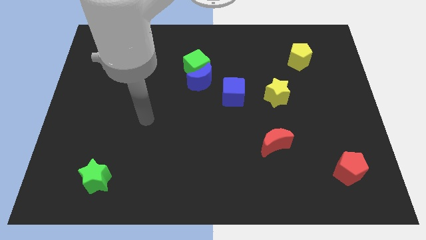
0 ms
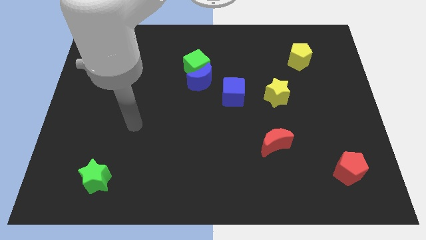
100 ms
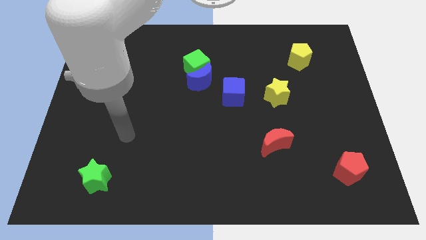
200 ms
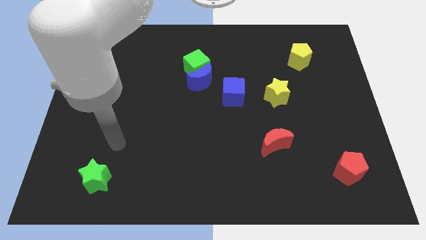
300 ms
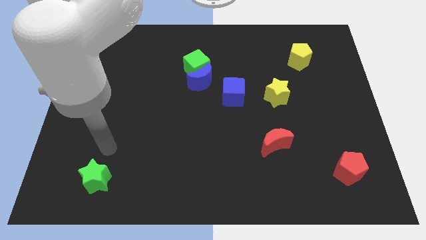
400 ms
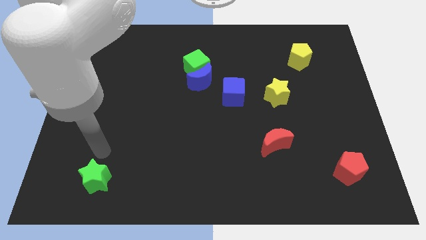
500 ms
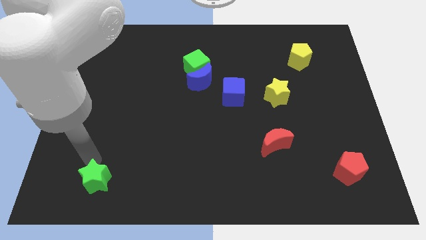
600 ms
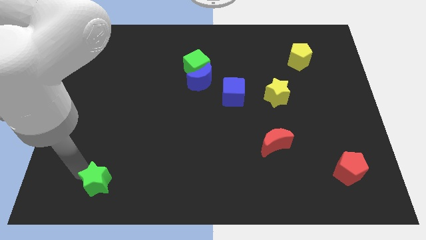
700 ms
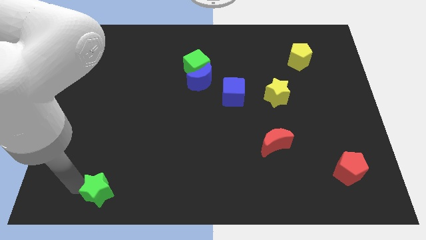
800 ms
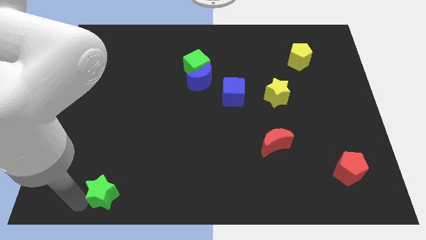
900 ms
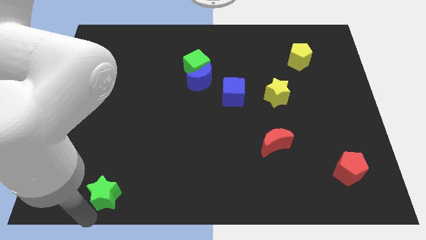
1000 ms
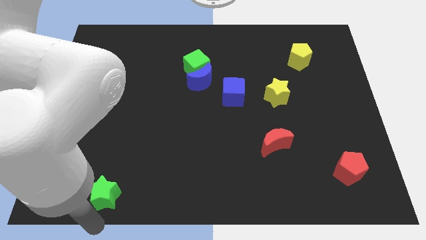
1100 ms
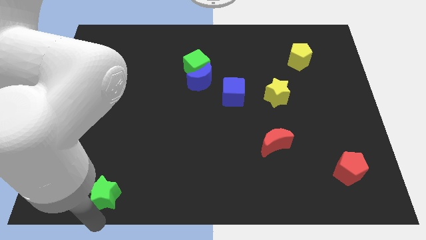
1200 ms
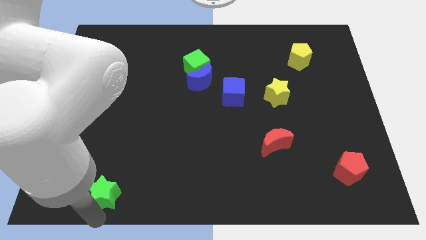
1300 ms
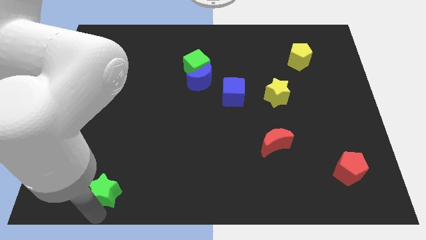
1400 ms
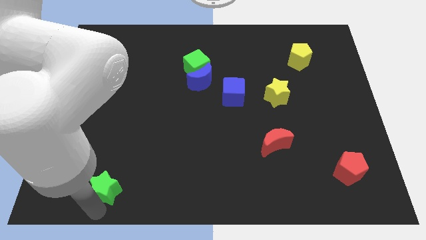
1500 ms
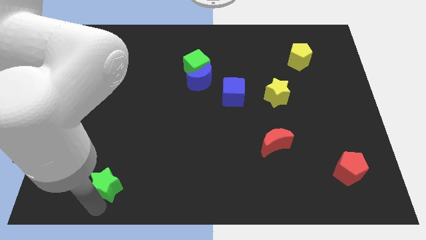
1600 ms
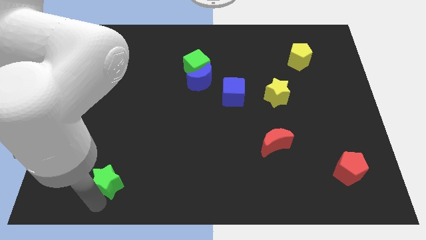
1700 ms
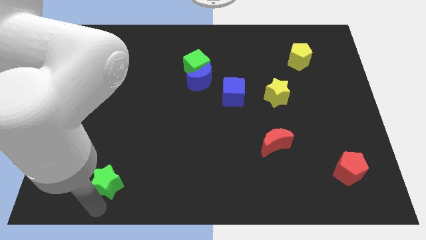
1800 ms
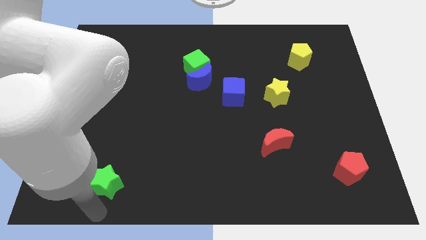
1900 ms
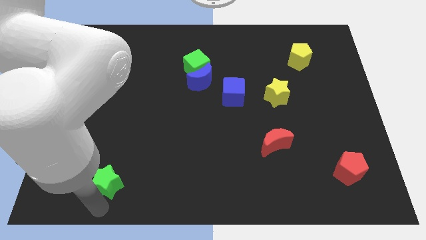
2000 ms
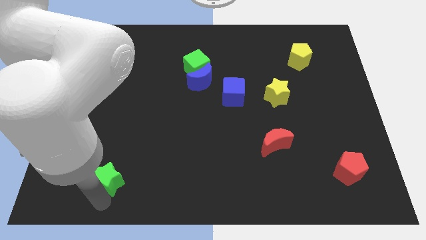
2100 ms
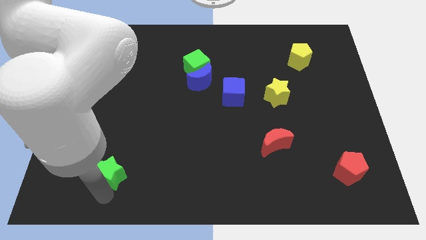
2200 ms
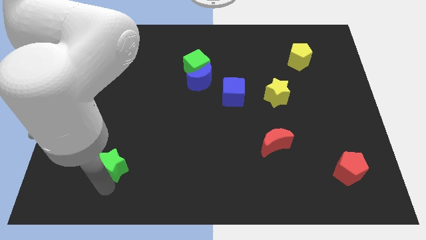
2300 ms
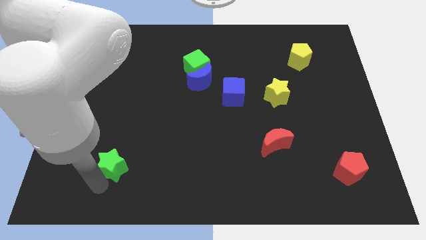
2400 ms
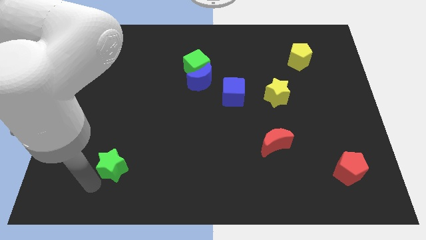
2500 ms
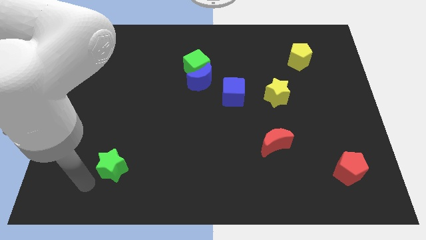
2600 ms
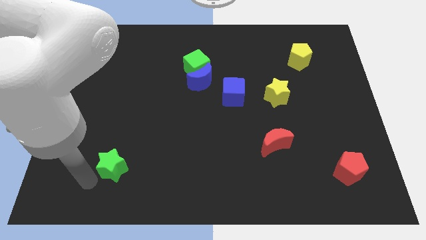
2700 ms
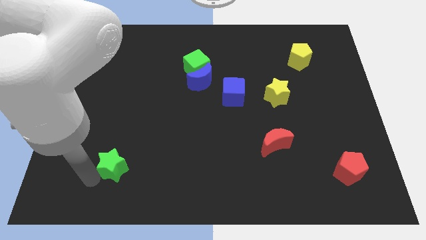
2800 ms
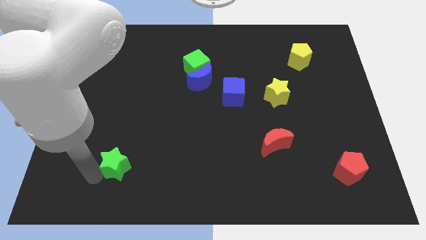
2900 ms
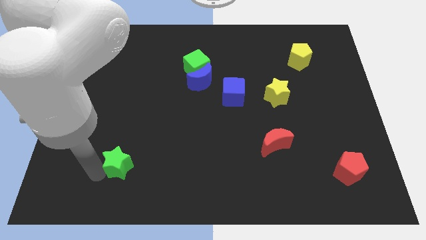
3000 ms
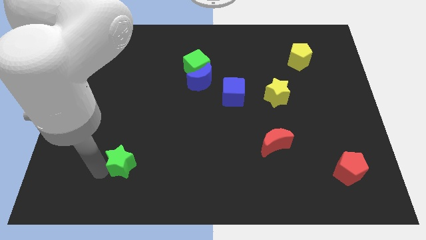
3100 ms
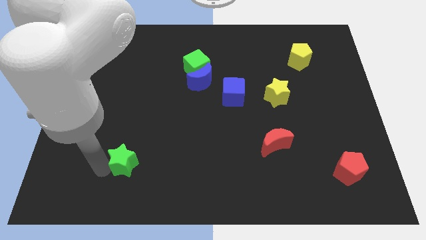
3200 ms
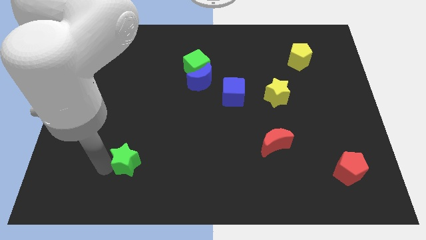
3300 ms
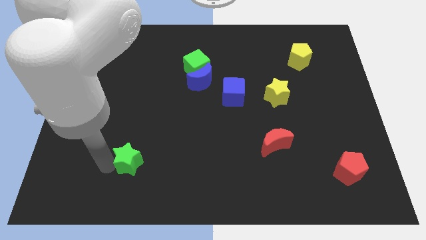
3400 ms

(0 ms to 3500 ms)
slide the green star upwards and then to the right somewhat

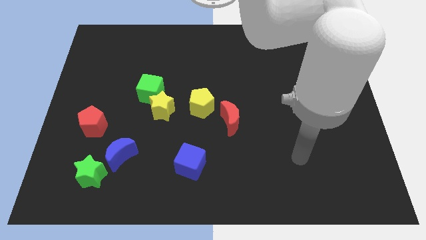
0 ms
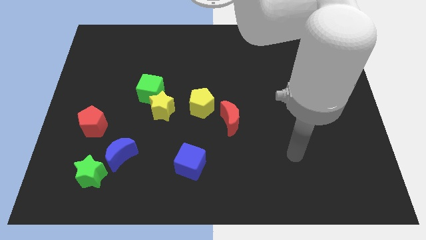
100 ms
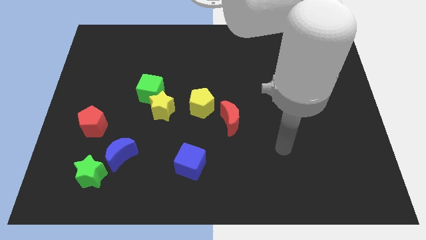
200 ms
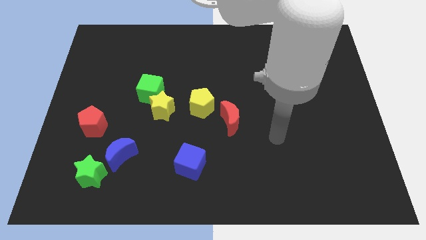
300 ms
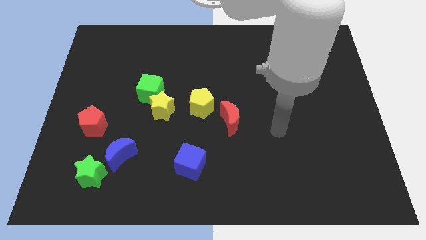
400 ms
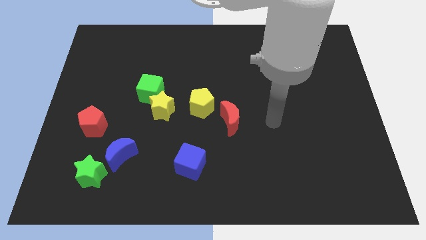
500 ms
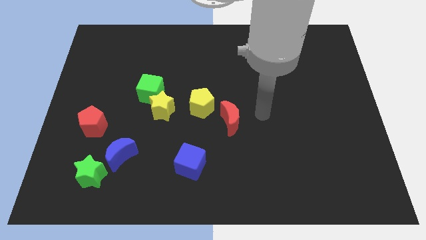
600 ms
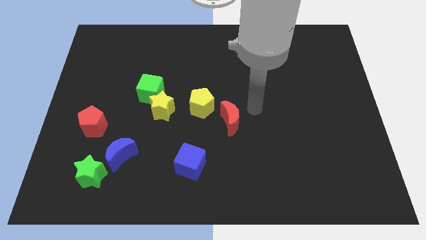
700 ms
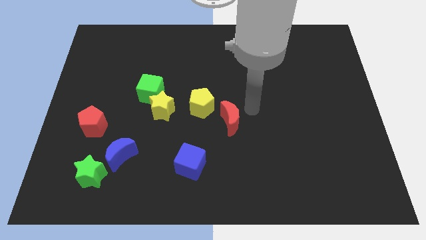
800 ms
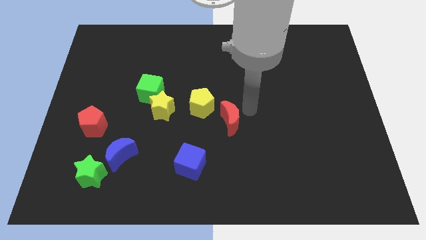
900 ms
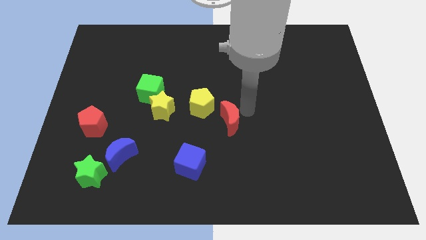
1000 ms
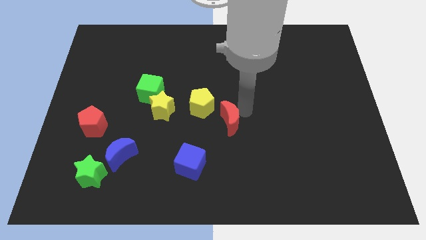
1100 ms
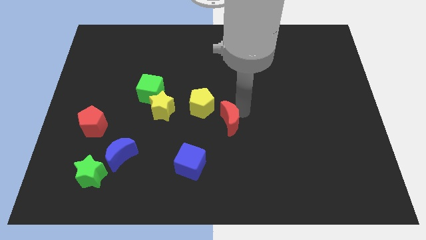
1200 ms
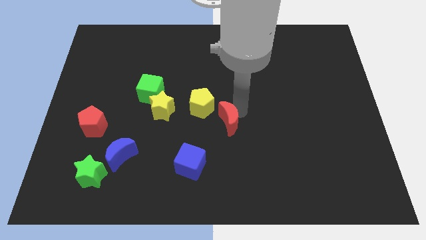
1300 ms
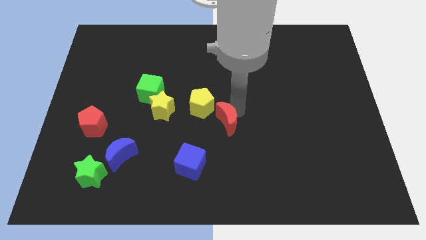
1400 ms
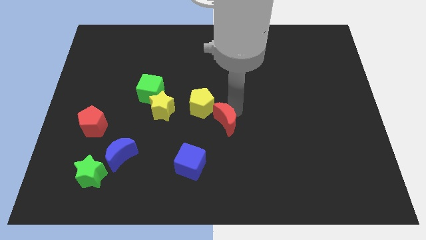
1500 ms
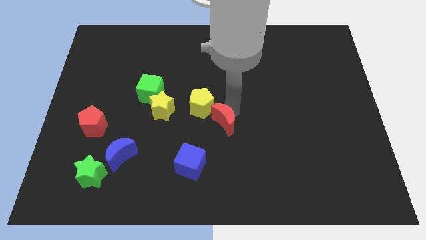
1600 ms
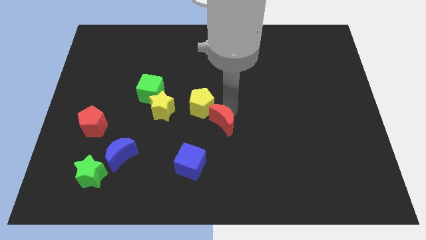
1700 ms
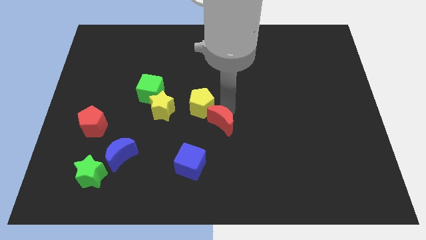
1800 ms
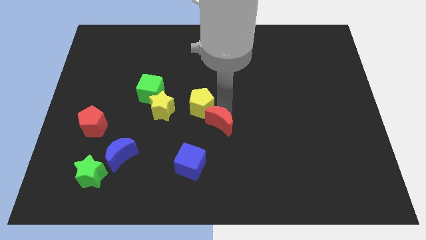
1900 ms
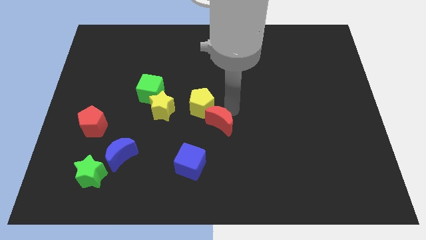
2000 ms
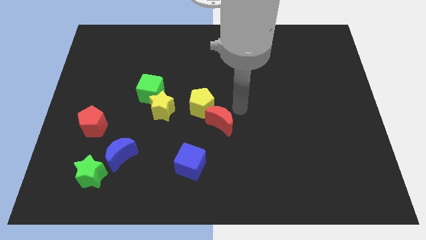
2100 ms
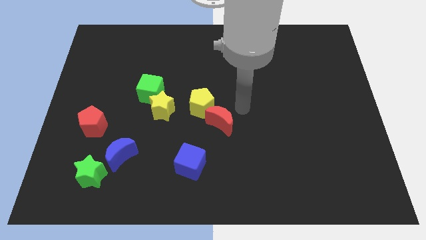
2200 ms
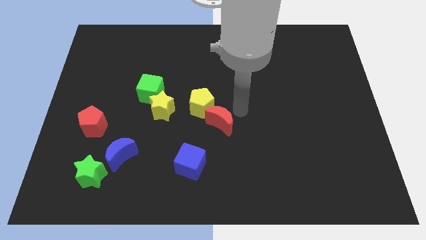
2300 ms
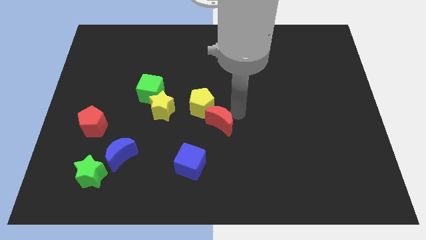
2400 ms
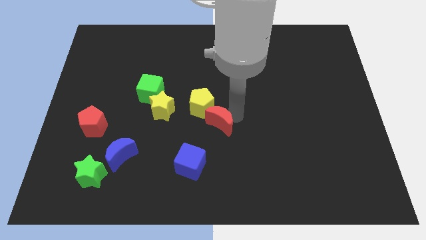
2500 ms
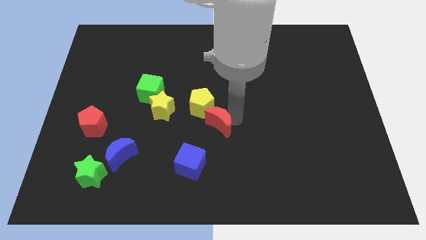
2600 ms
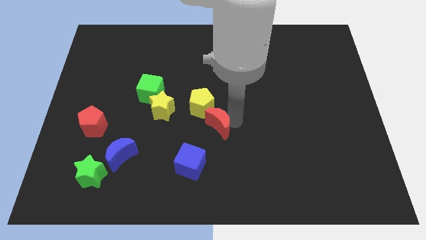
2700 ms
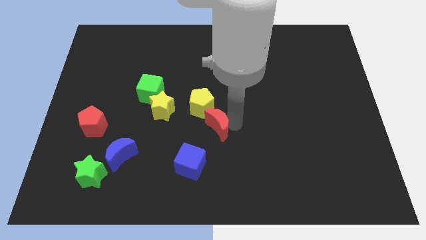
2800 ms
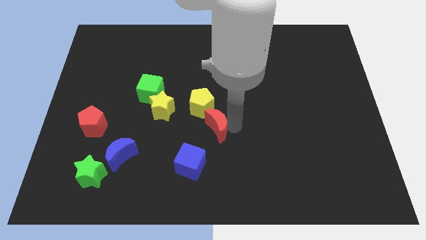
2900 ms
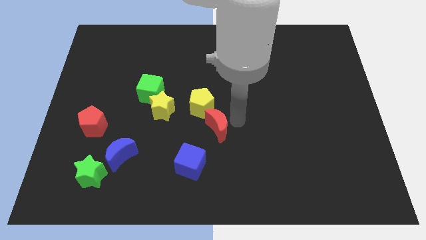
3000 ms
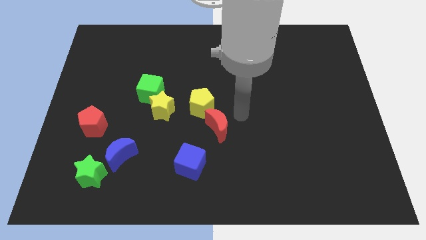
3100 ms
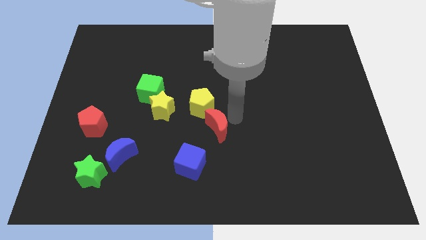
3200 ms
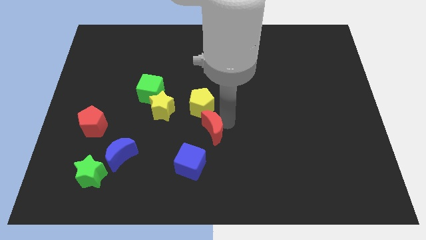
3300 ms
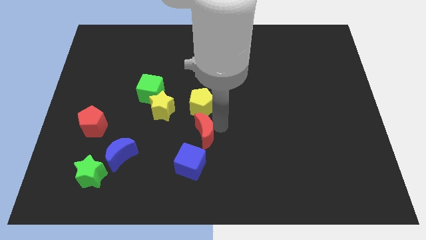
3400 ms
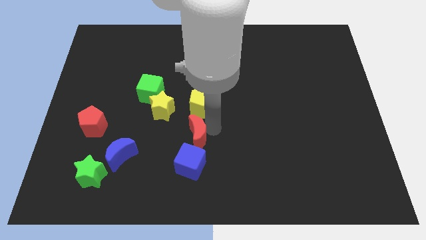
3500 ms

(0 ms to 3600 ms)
slightly move the red moon downwards and then to the left

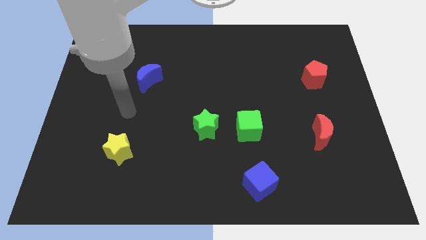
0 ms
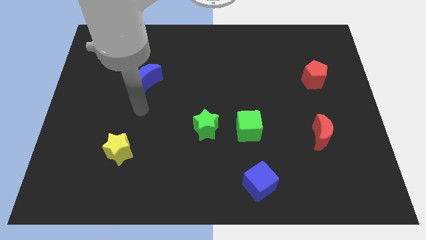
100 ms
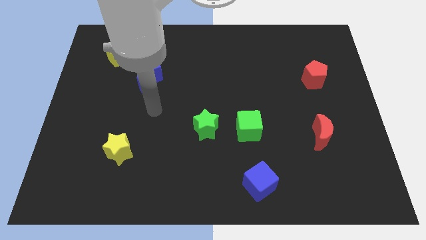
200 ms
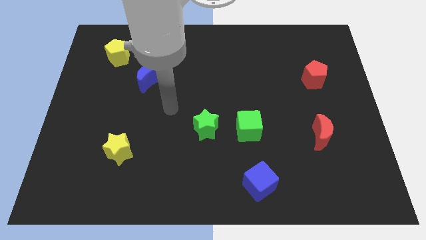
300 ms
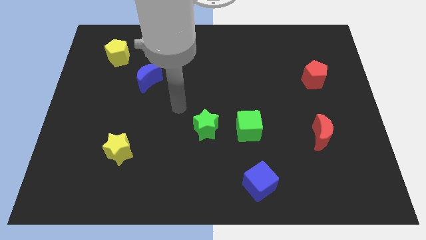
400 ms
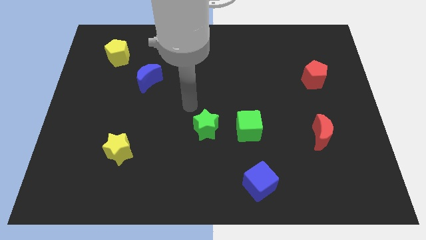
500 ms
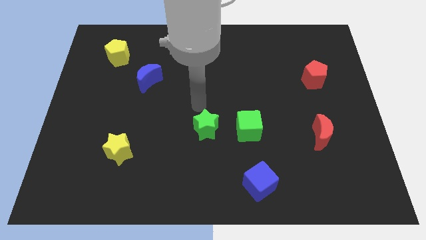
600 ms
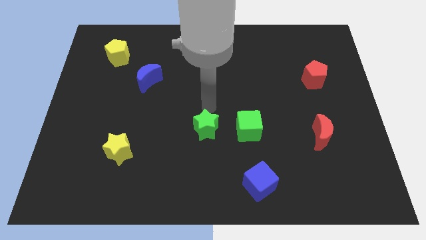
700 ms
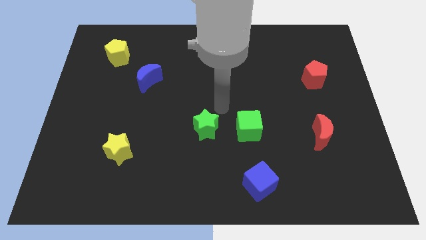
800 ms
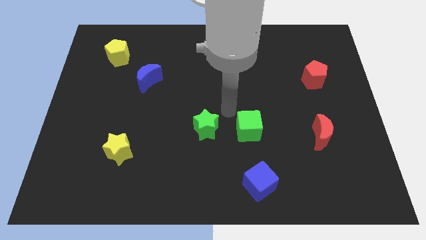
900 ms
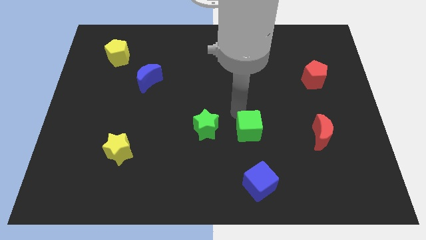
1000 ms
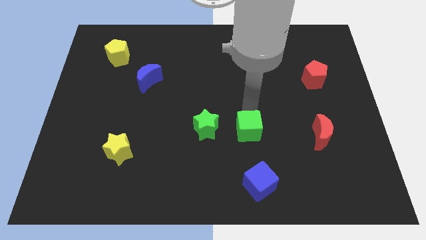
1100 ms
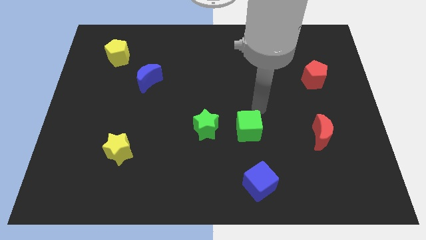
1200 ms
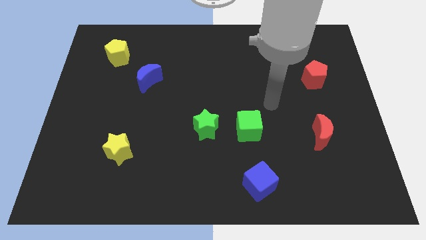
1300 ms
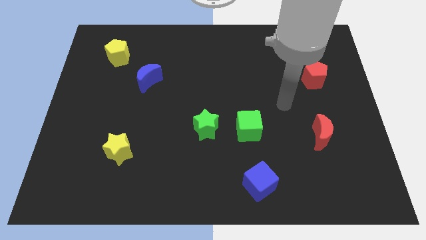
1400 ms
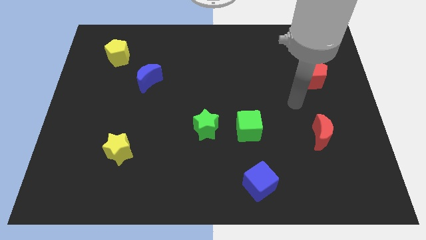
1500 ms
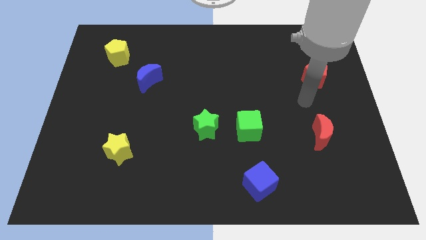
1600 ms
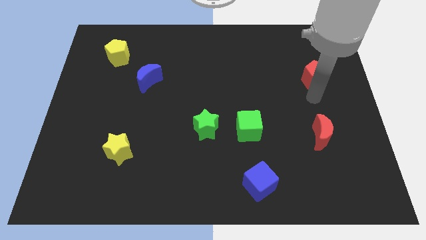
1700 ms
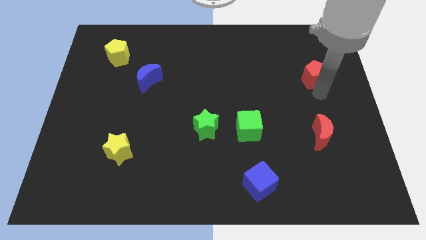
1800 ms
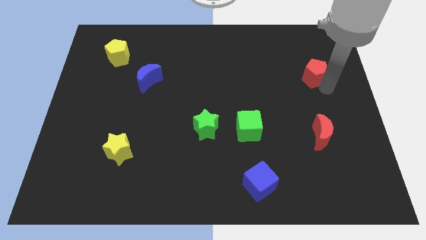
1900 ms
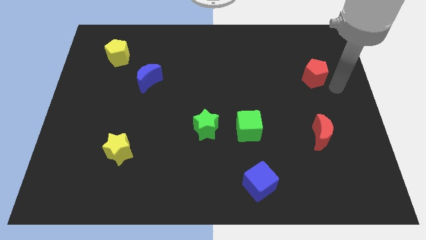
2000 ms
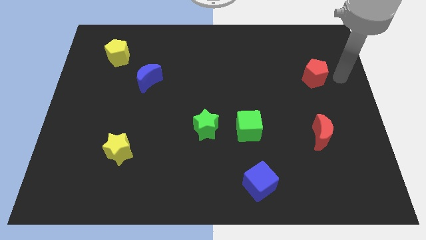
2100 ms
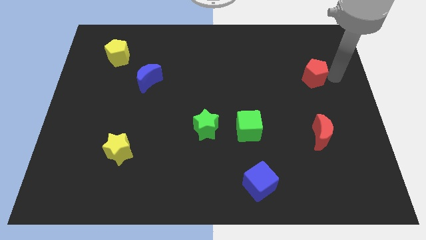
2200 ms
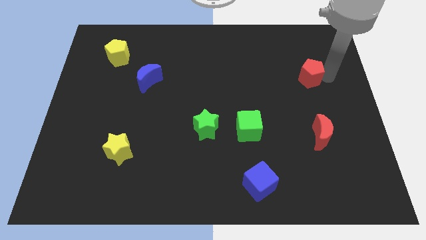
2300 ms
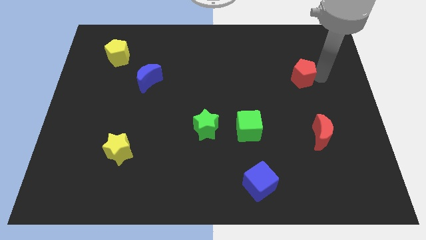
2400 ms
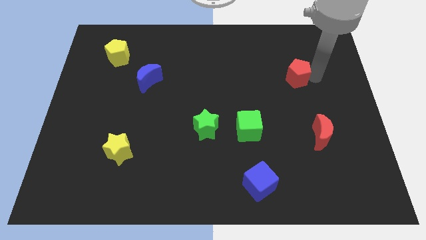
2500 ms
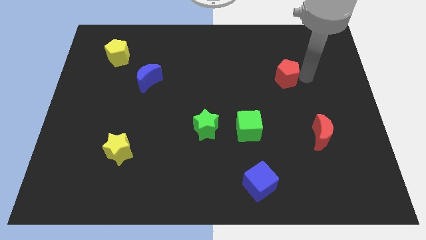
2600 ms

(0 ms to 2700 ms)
slide the red pentagon a bit left
